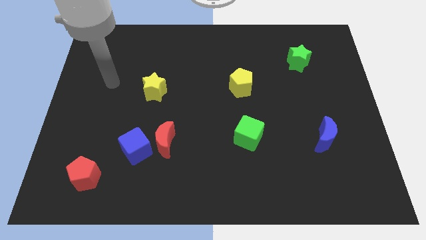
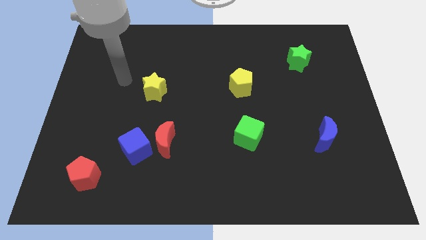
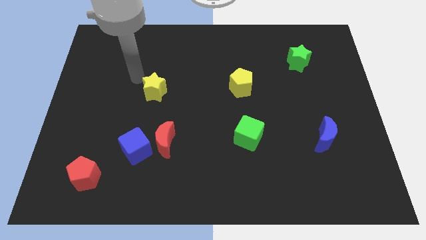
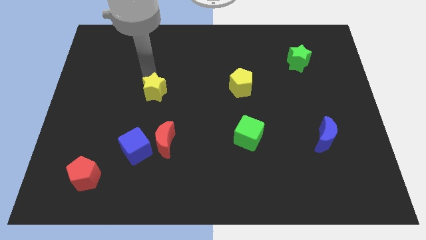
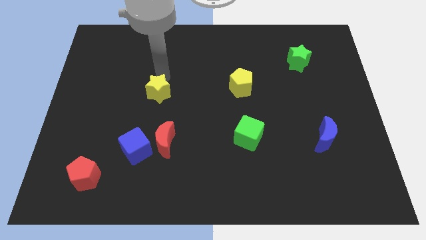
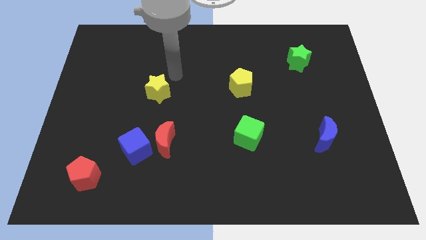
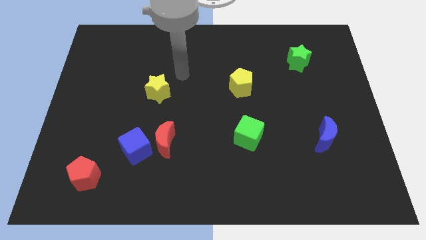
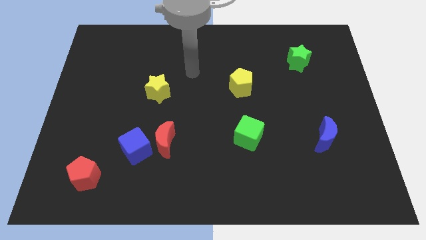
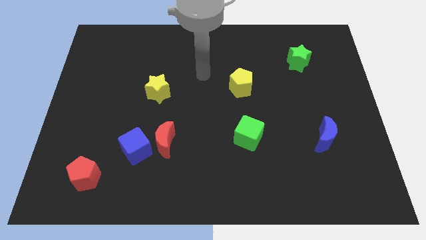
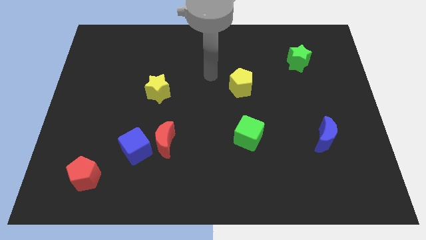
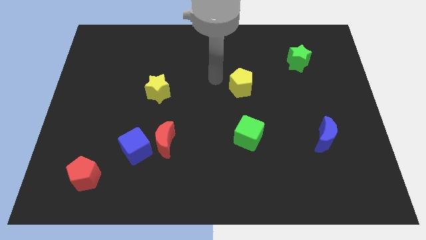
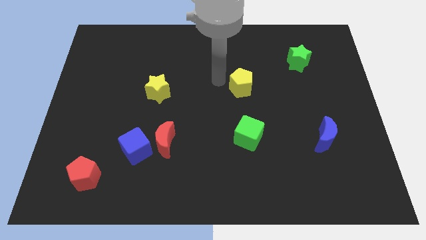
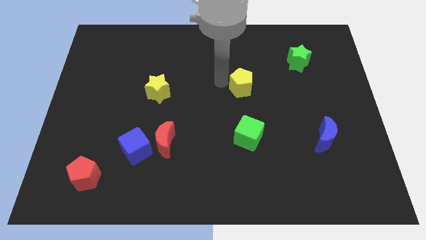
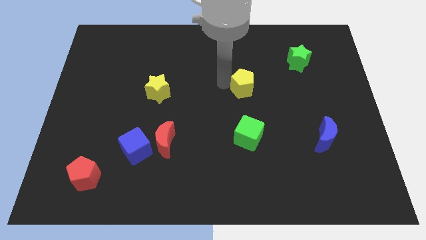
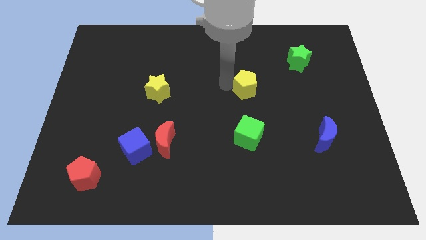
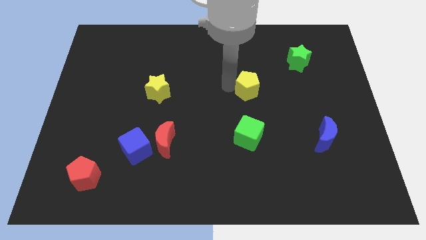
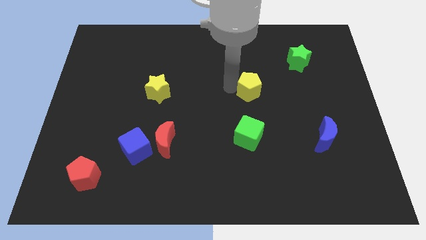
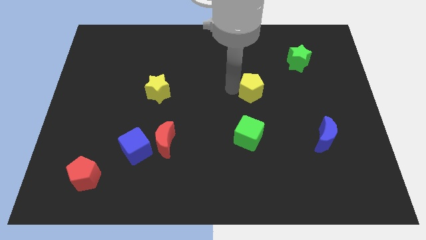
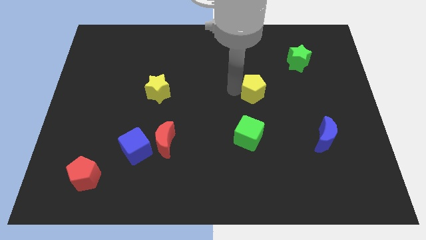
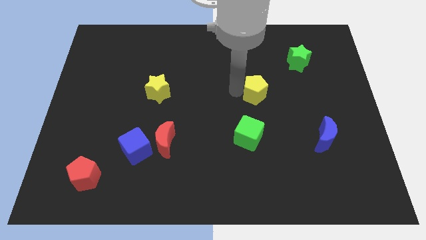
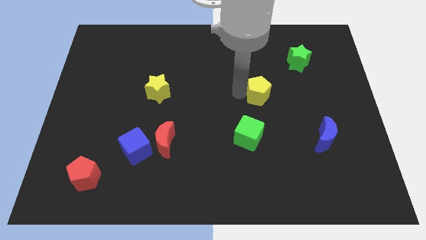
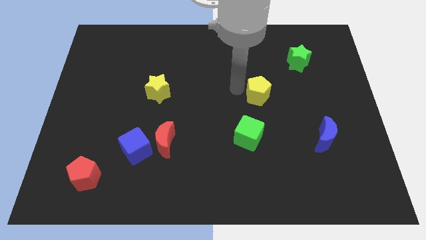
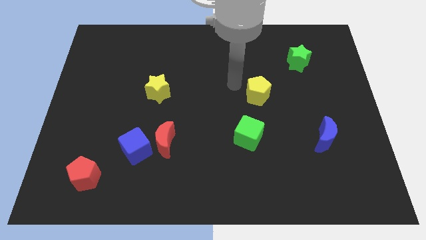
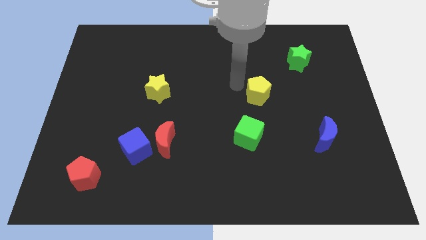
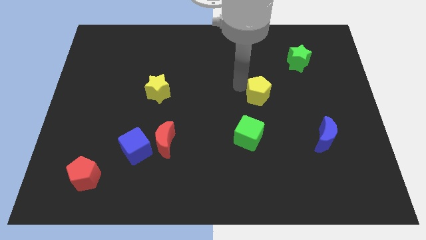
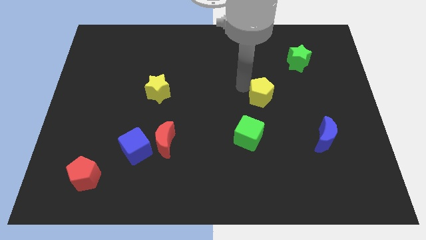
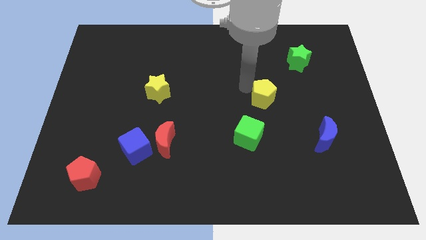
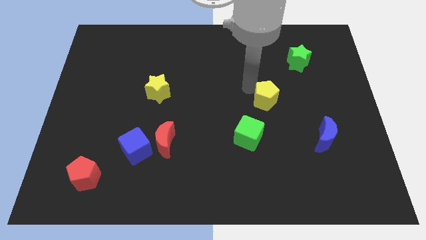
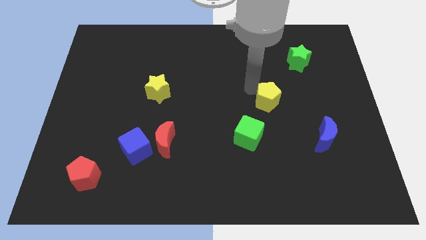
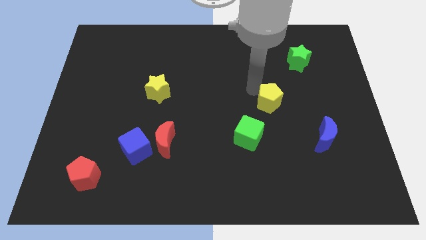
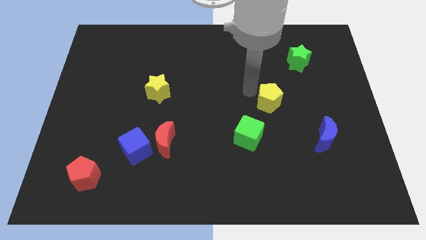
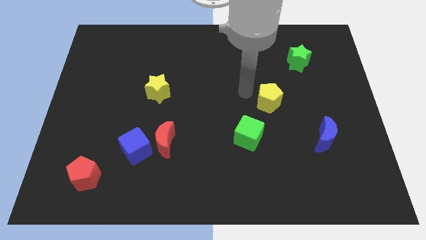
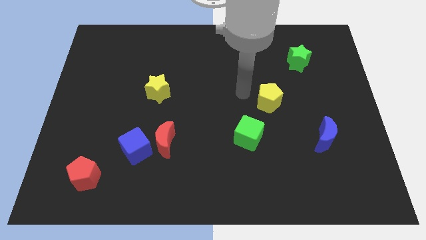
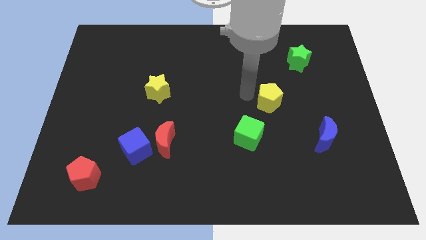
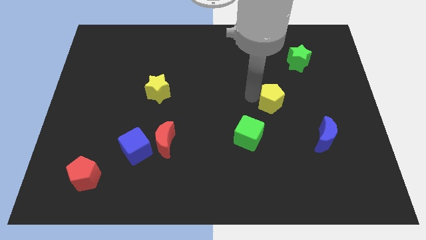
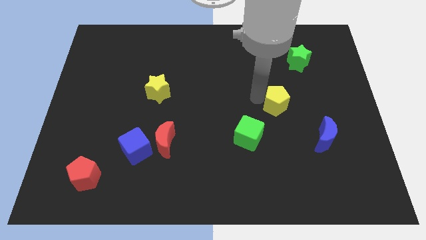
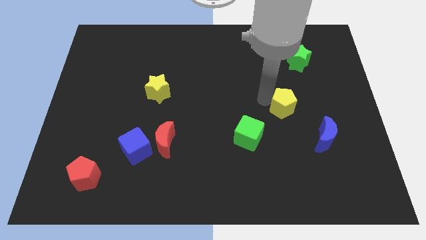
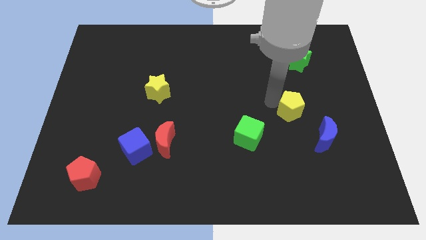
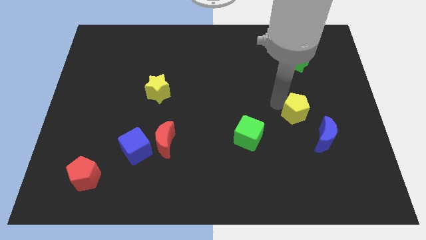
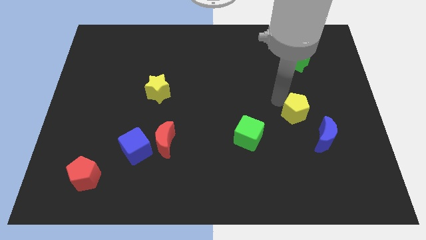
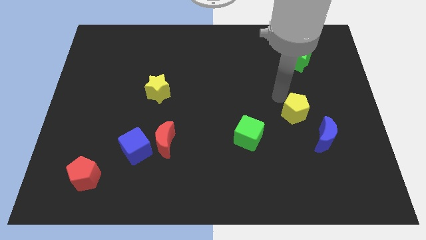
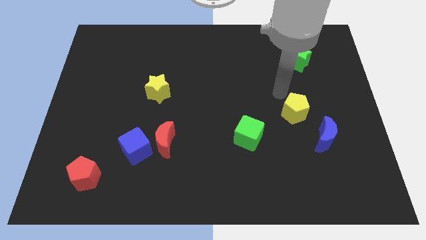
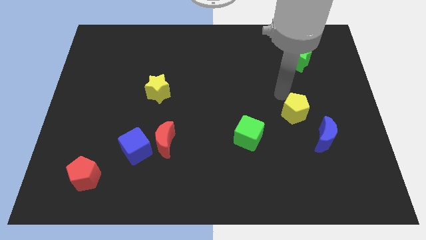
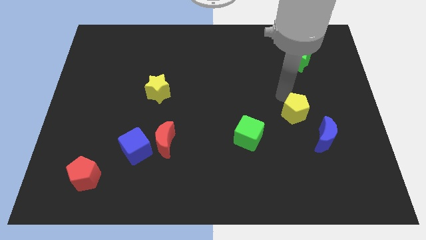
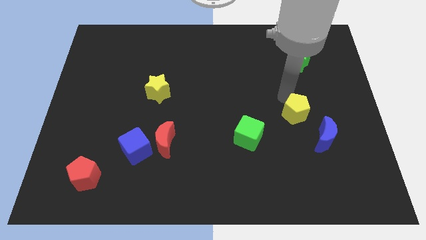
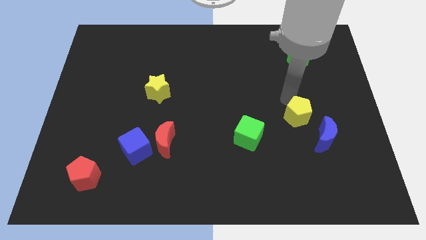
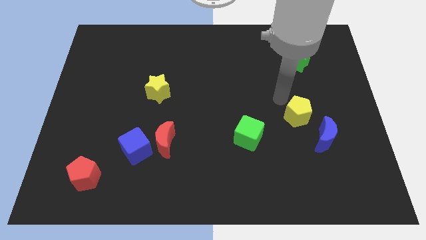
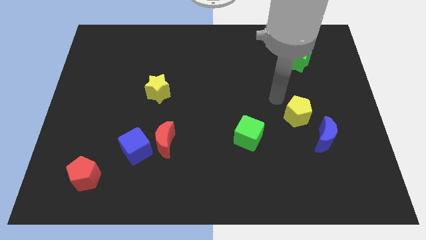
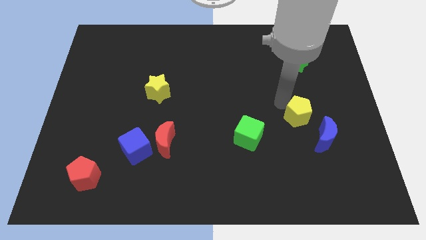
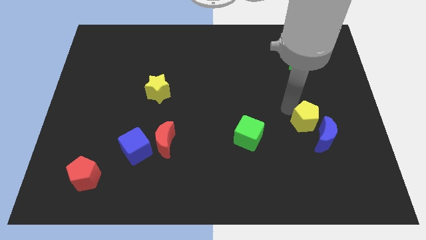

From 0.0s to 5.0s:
move the yellow pentagon next to the blue moon

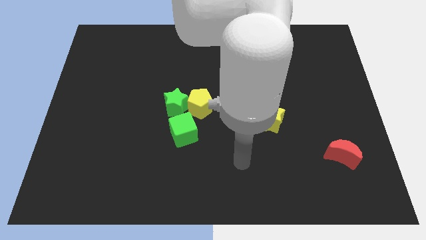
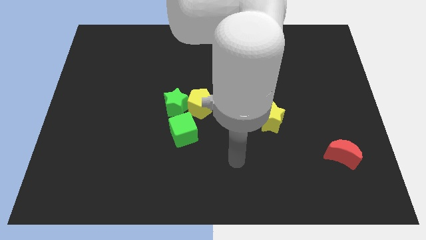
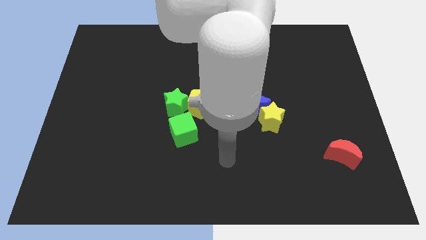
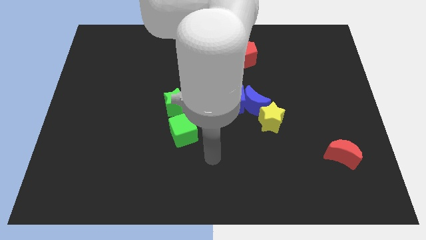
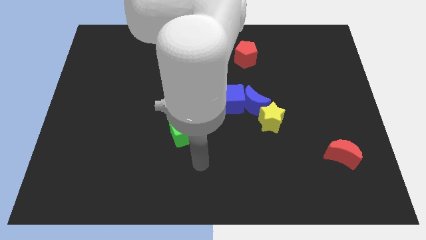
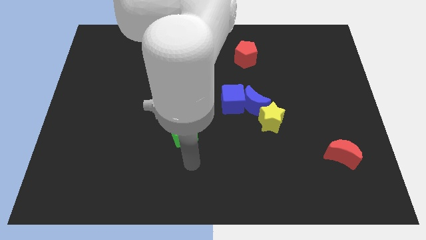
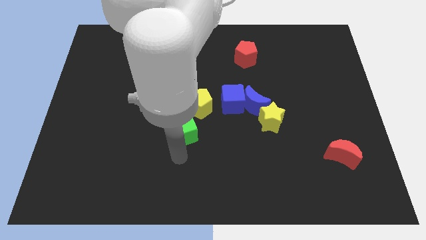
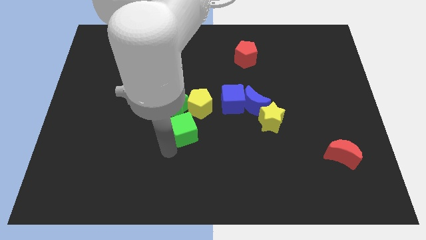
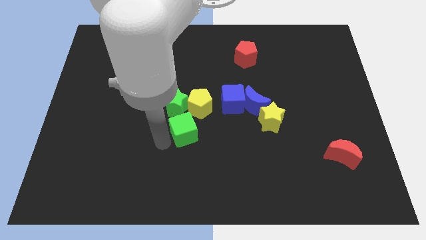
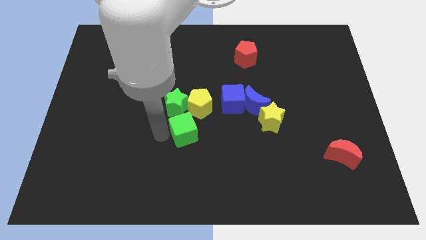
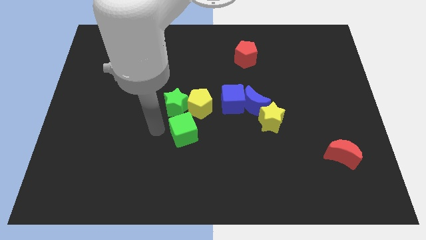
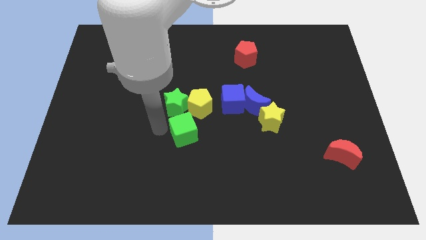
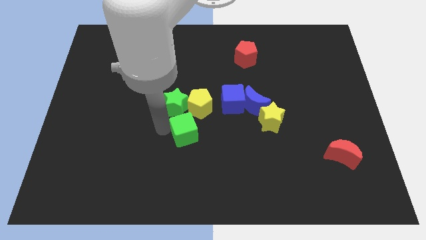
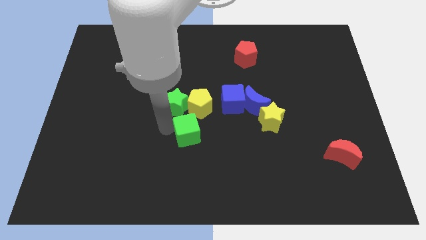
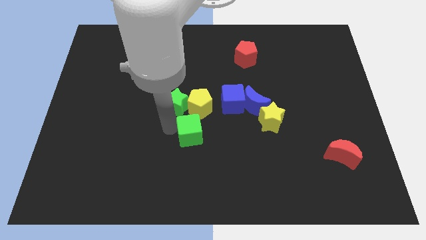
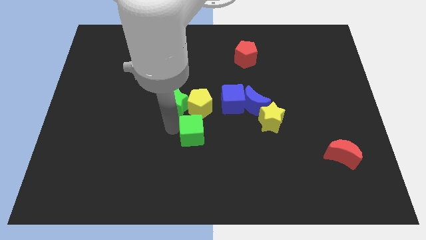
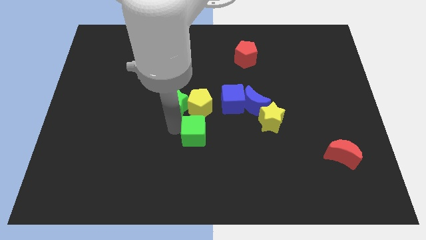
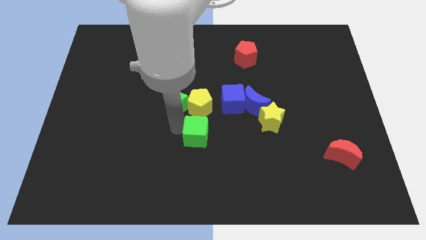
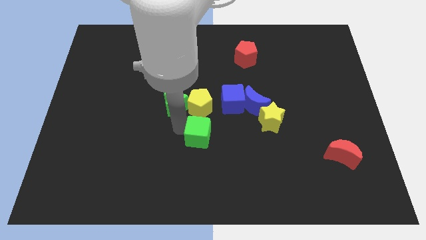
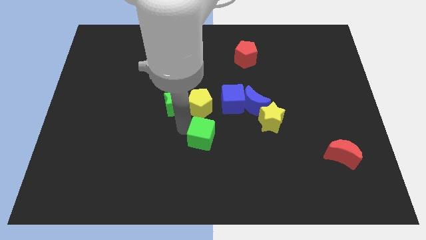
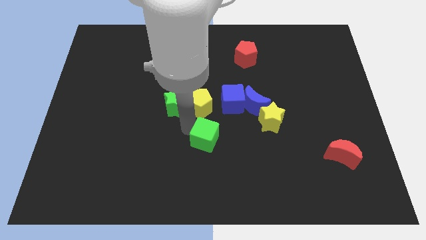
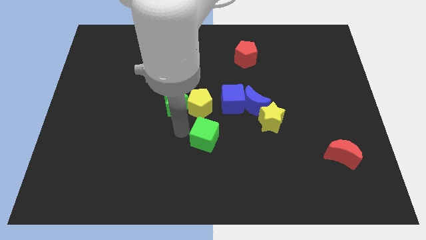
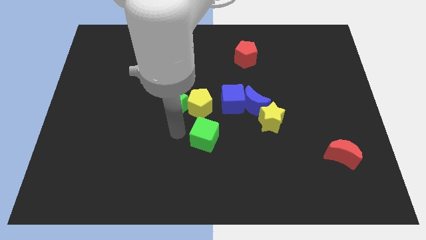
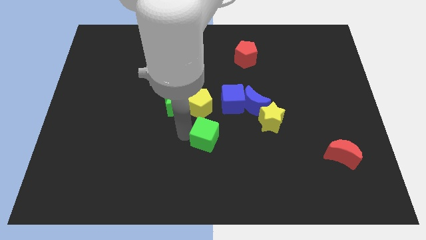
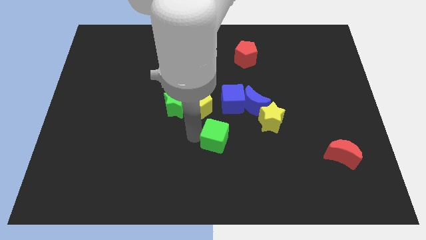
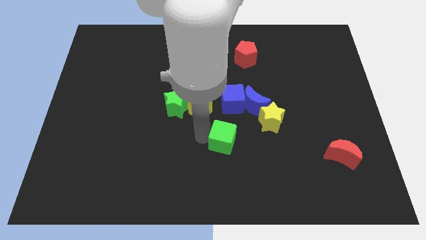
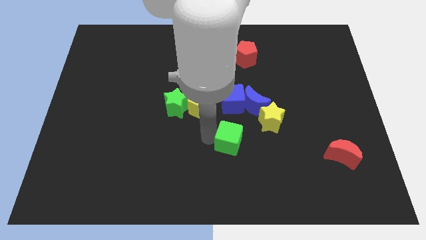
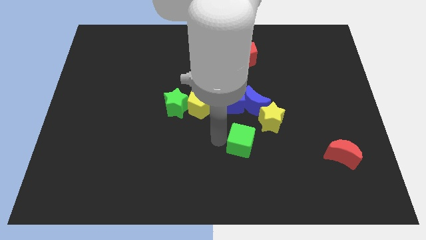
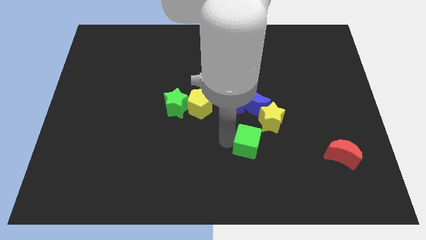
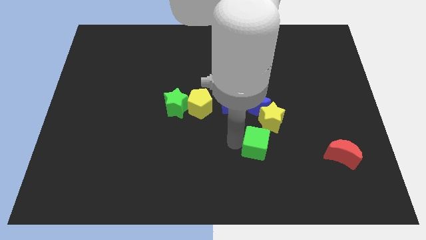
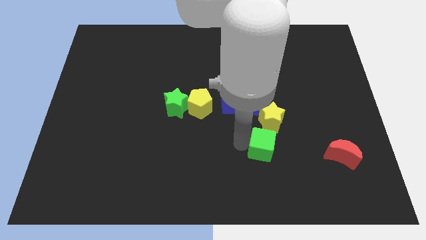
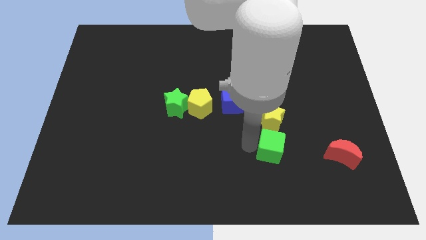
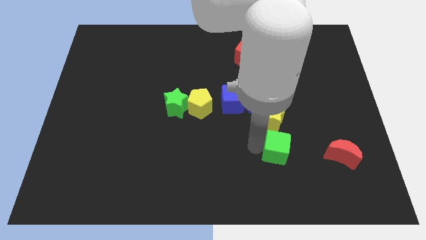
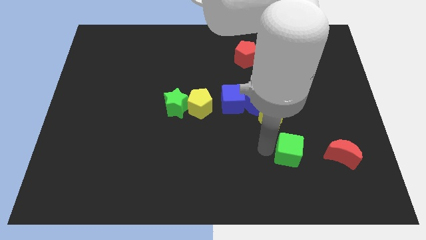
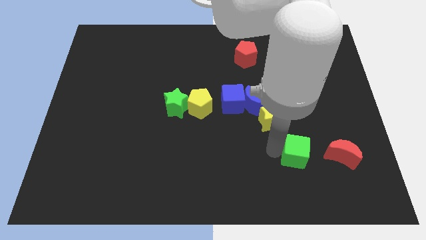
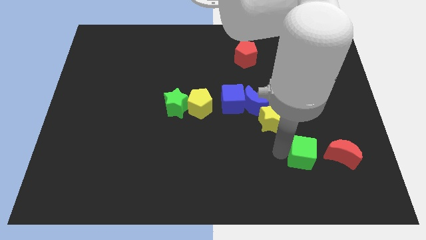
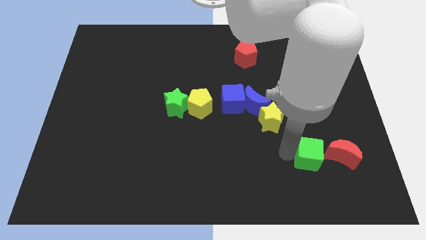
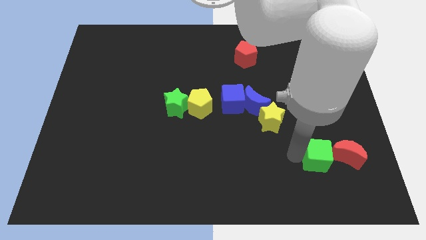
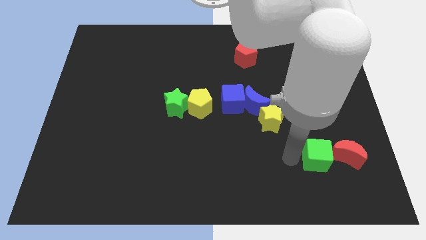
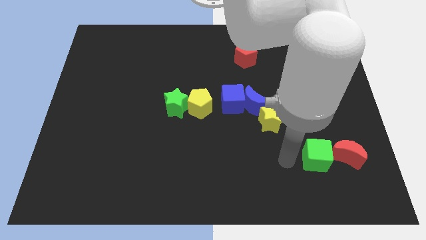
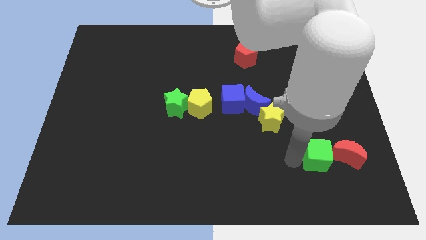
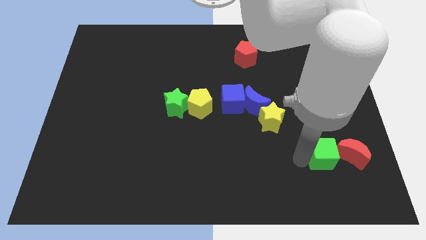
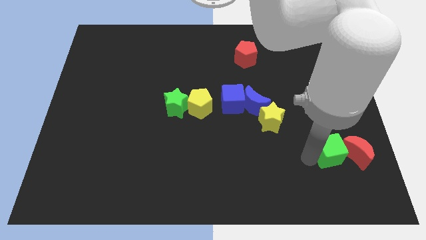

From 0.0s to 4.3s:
push the green cube close to the red moon
